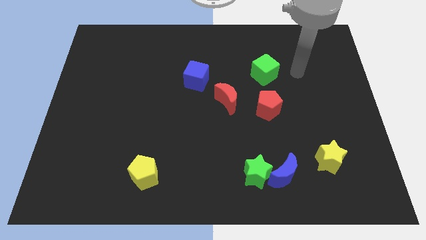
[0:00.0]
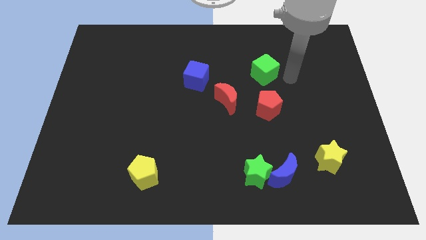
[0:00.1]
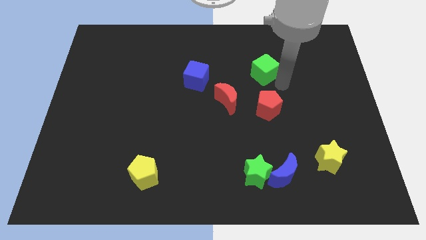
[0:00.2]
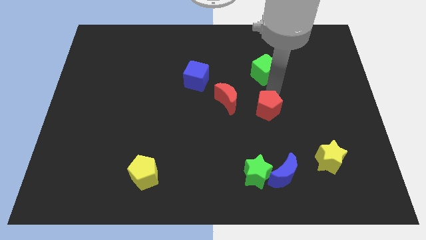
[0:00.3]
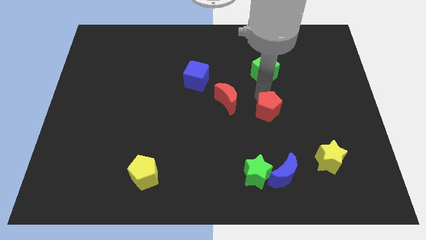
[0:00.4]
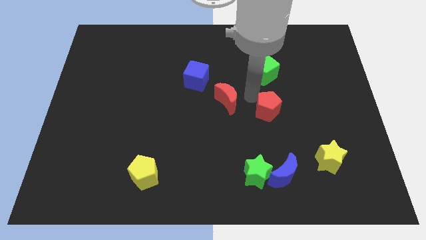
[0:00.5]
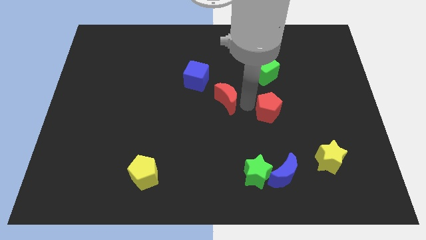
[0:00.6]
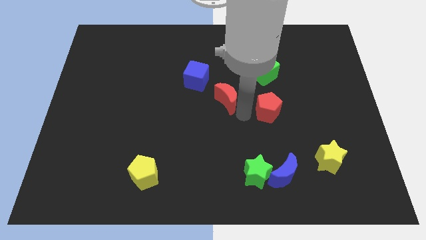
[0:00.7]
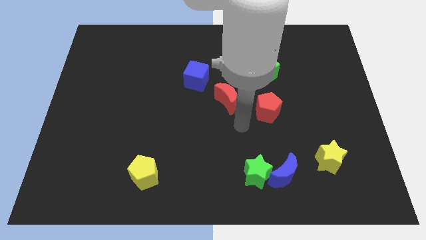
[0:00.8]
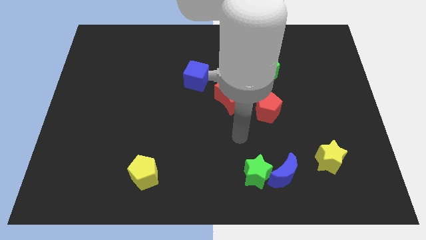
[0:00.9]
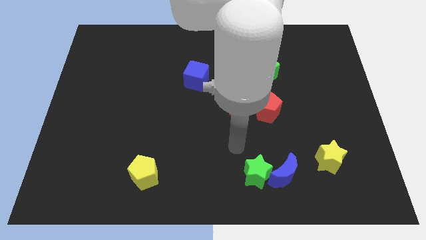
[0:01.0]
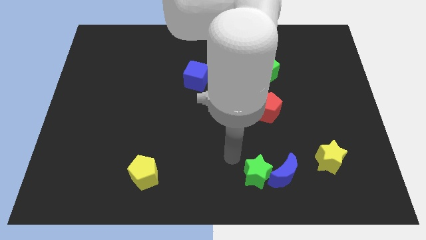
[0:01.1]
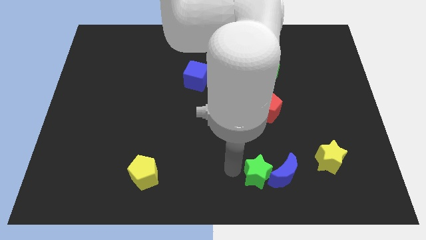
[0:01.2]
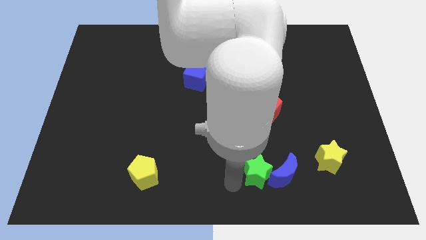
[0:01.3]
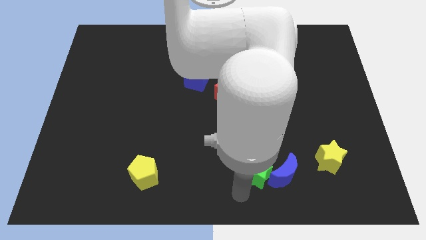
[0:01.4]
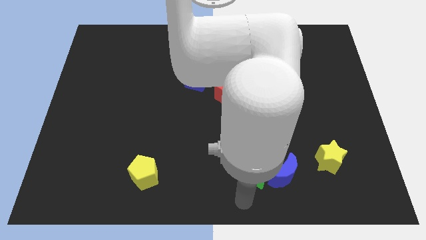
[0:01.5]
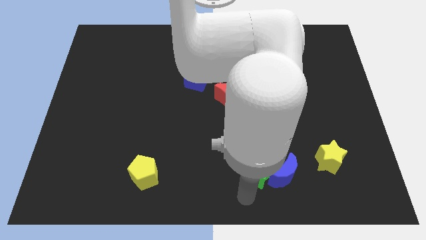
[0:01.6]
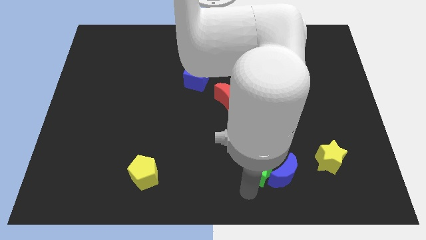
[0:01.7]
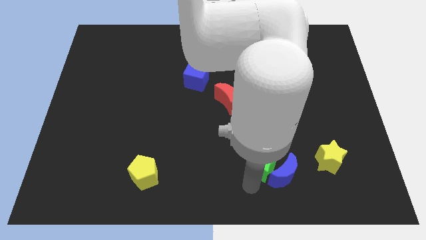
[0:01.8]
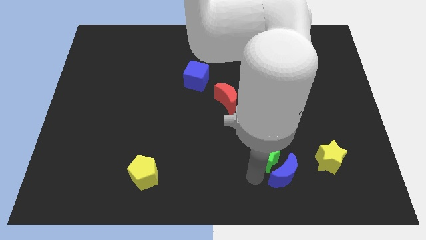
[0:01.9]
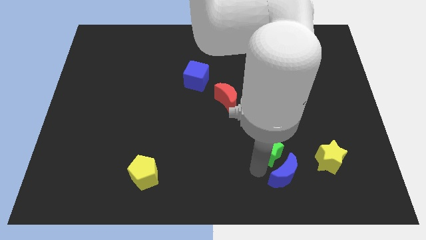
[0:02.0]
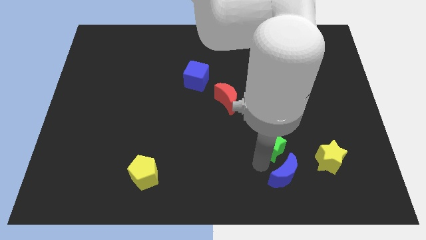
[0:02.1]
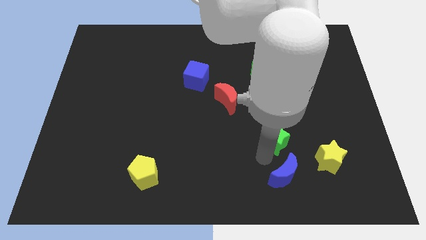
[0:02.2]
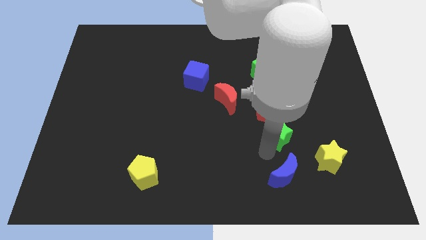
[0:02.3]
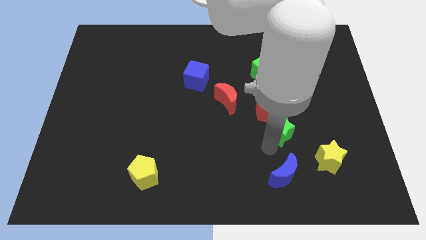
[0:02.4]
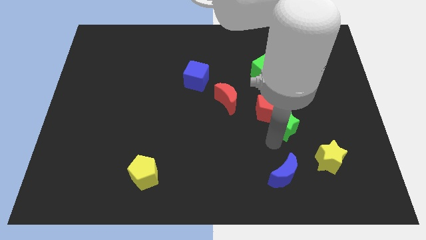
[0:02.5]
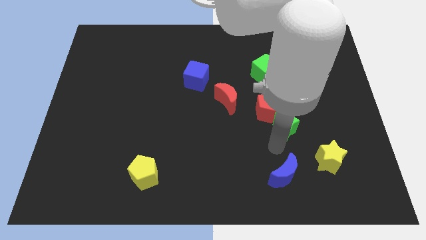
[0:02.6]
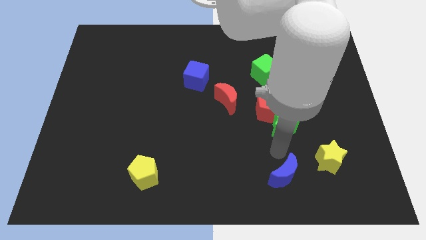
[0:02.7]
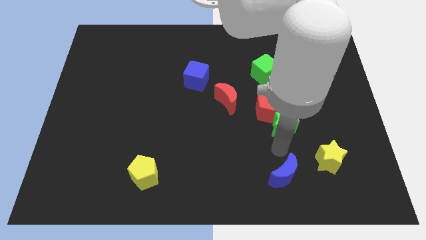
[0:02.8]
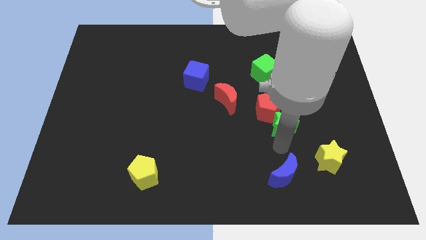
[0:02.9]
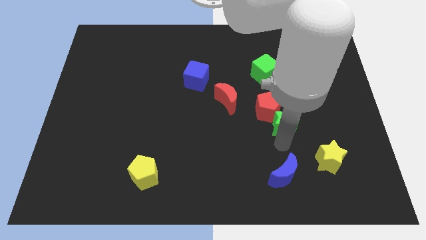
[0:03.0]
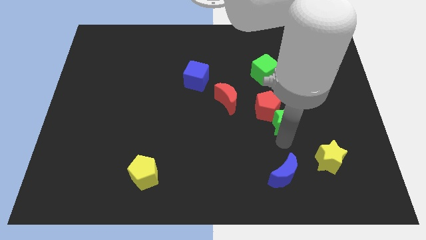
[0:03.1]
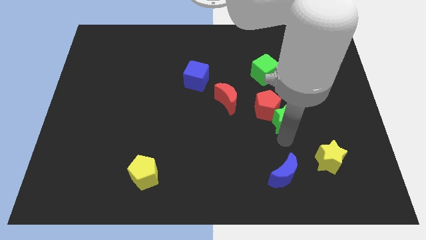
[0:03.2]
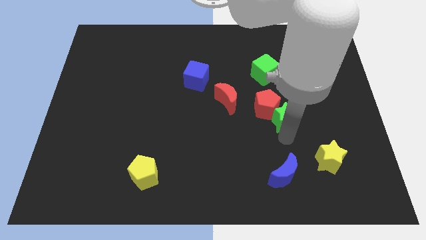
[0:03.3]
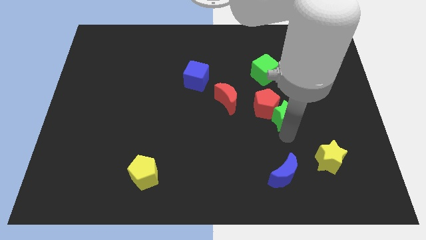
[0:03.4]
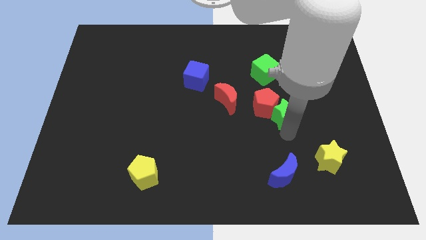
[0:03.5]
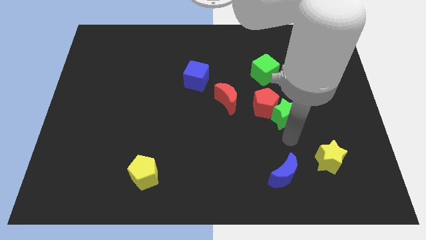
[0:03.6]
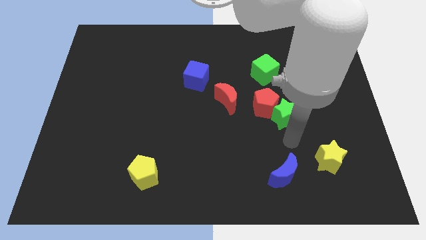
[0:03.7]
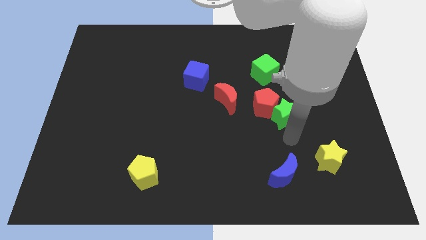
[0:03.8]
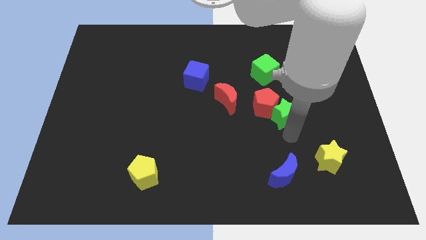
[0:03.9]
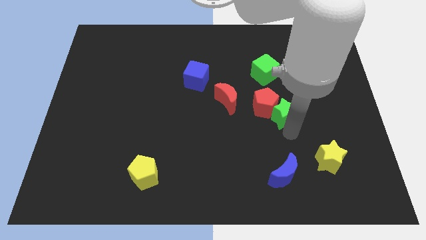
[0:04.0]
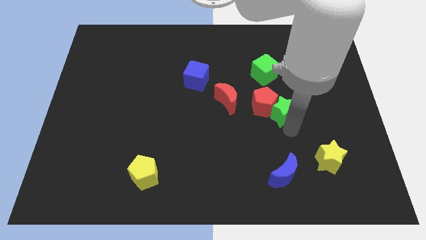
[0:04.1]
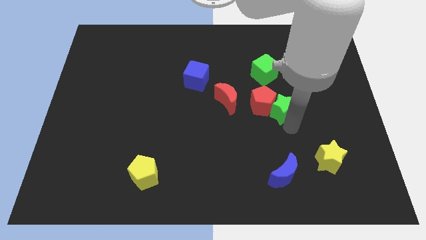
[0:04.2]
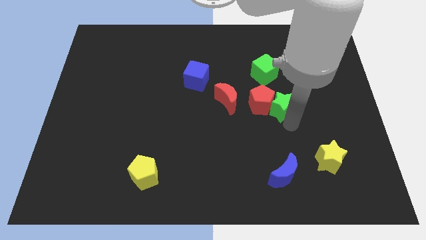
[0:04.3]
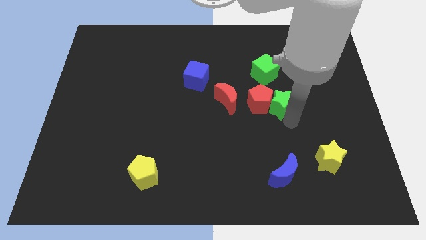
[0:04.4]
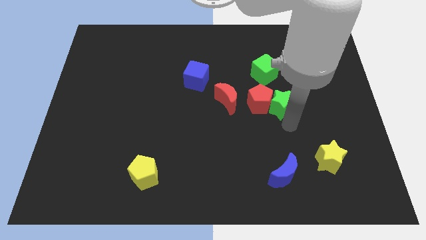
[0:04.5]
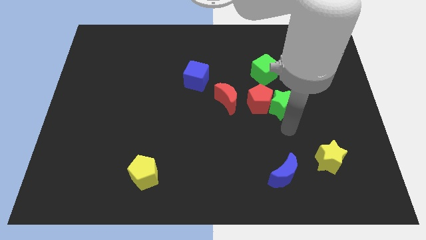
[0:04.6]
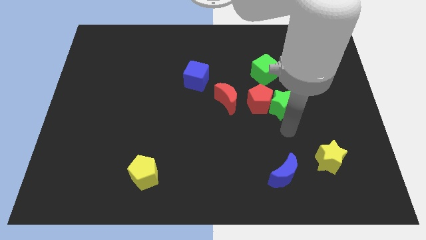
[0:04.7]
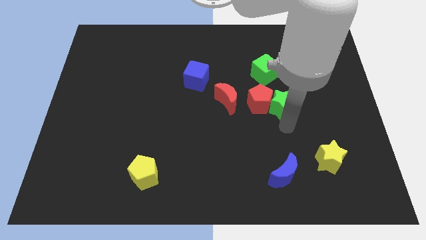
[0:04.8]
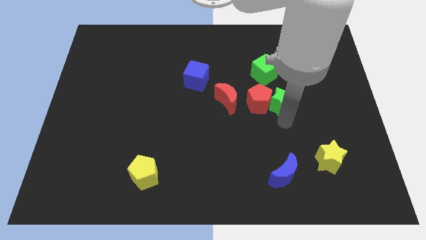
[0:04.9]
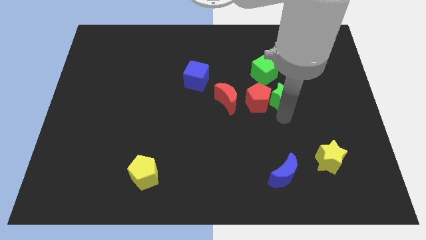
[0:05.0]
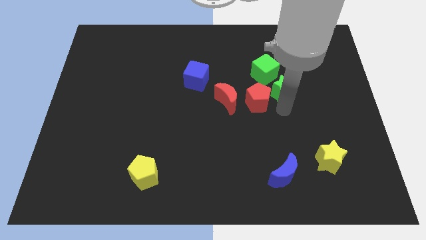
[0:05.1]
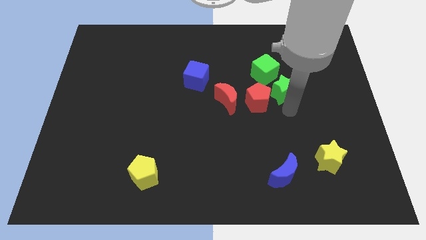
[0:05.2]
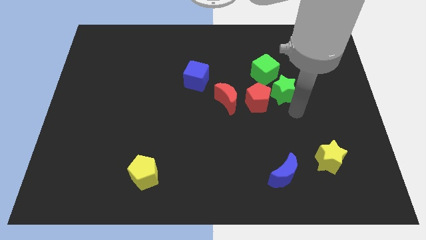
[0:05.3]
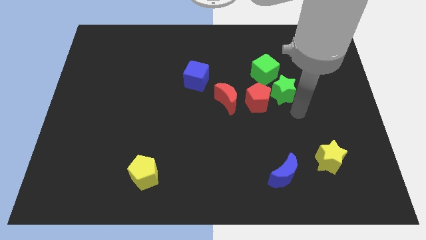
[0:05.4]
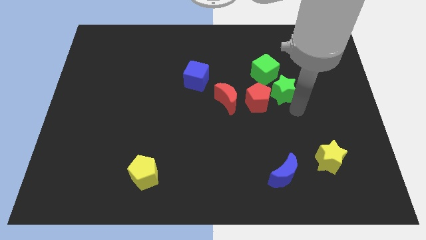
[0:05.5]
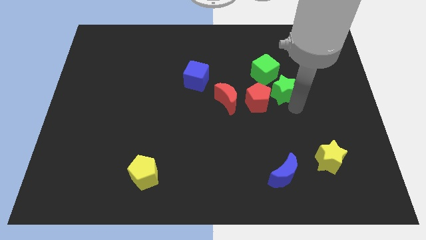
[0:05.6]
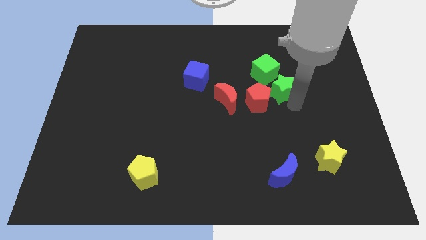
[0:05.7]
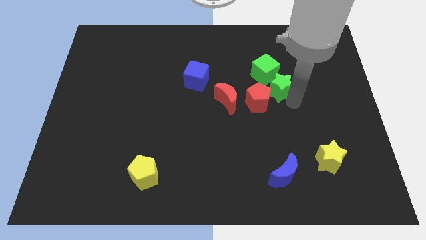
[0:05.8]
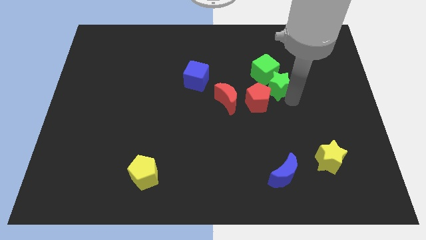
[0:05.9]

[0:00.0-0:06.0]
move the green star to the green cube

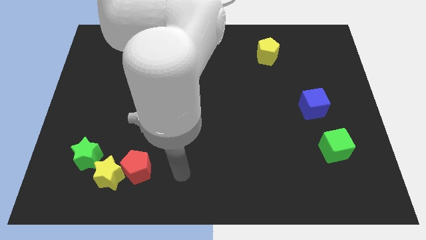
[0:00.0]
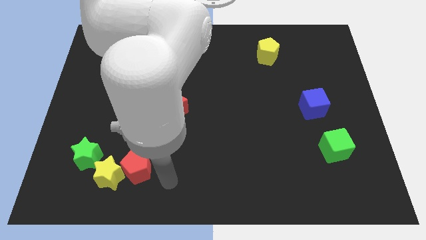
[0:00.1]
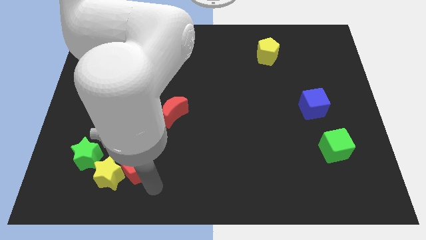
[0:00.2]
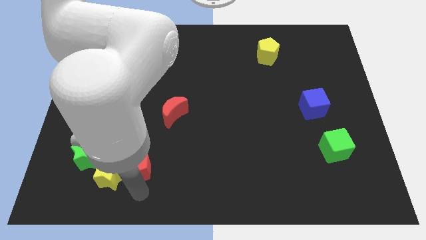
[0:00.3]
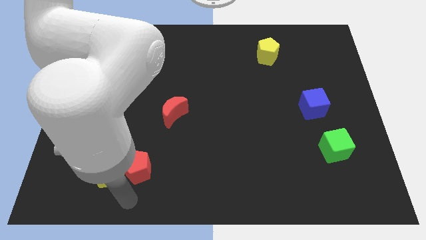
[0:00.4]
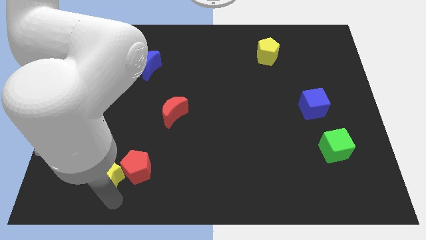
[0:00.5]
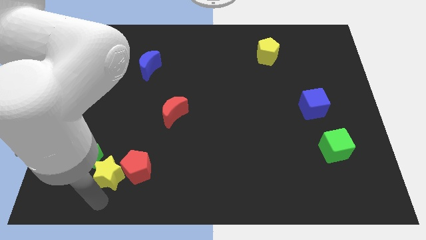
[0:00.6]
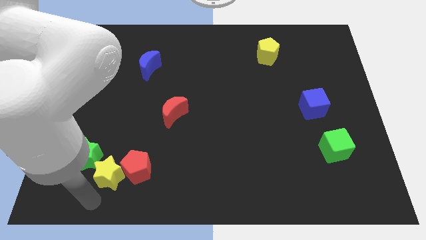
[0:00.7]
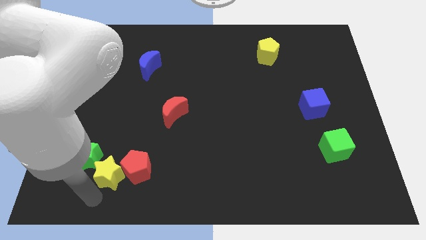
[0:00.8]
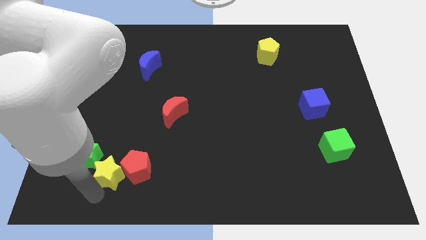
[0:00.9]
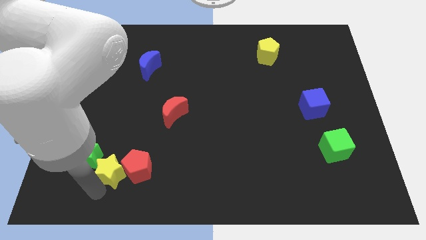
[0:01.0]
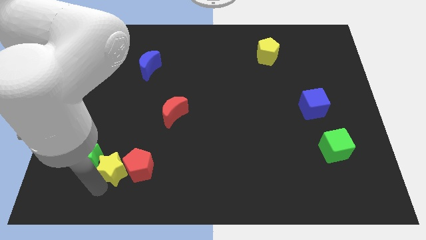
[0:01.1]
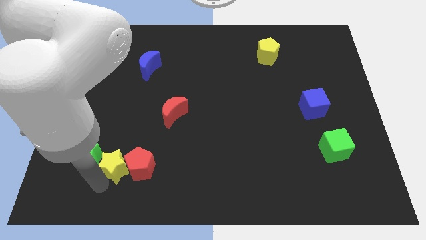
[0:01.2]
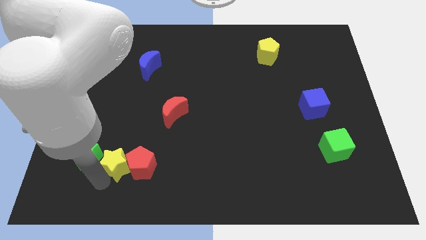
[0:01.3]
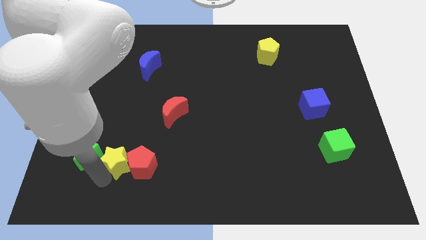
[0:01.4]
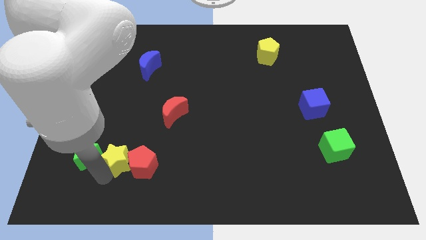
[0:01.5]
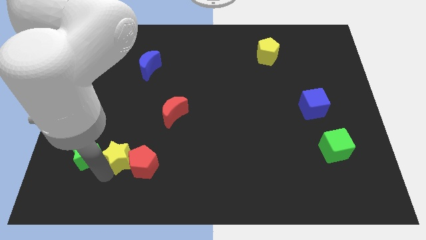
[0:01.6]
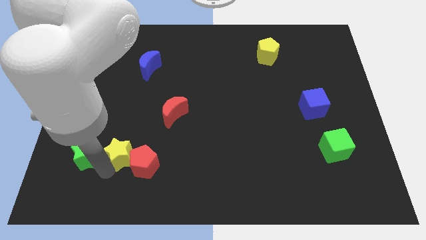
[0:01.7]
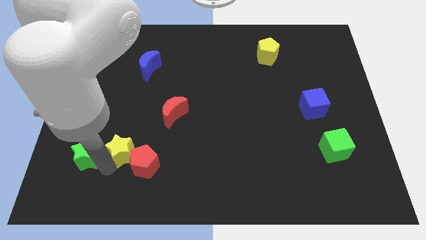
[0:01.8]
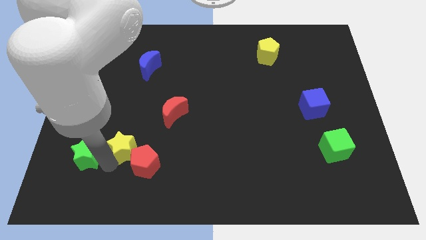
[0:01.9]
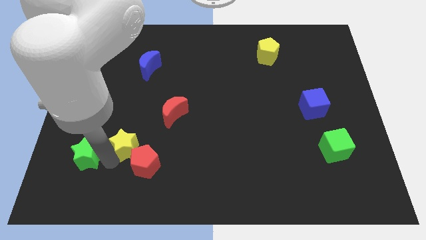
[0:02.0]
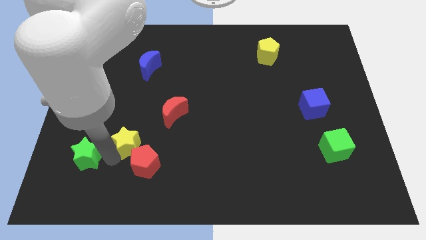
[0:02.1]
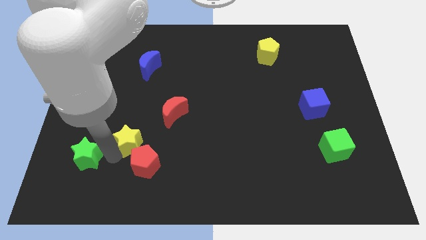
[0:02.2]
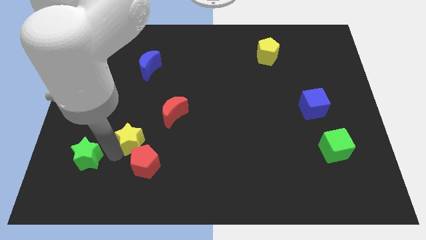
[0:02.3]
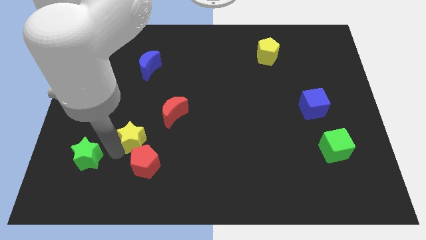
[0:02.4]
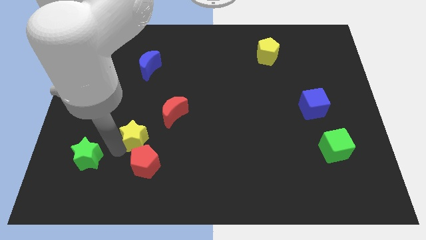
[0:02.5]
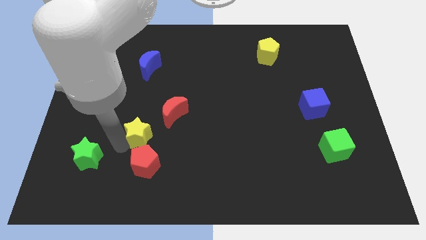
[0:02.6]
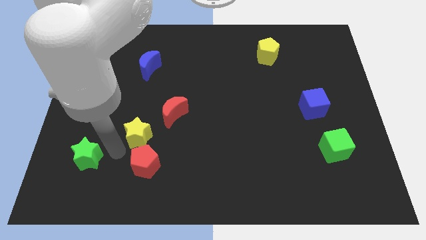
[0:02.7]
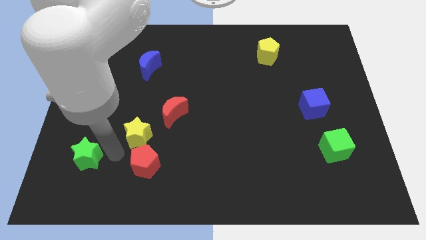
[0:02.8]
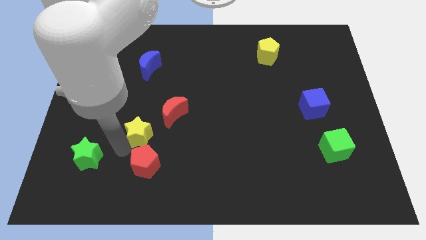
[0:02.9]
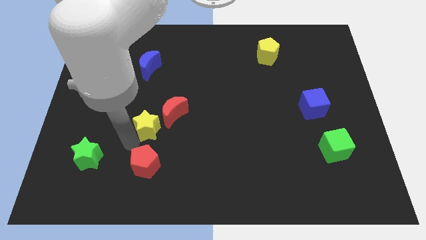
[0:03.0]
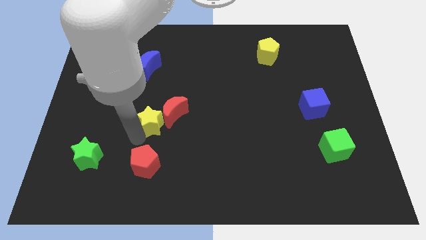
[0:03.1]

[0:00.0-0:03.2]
push the yellow star close to the red moon
